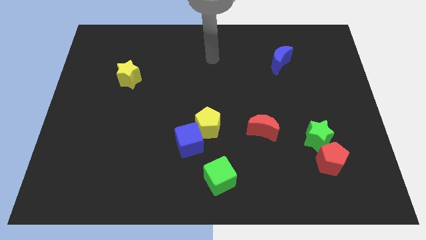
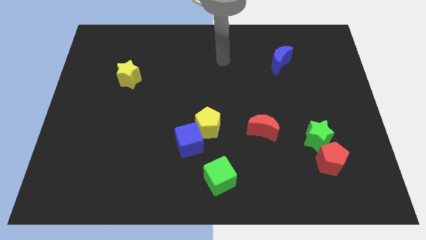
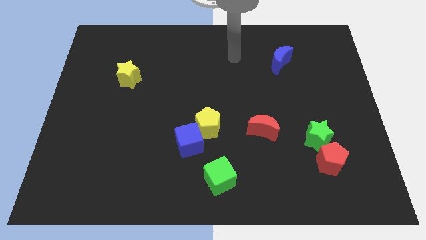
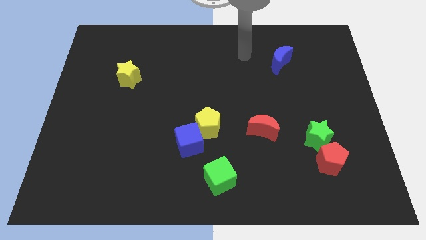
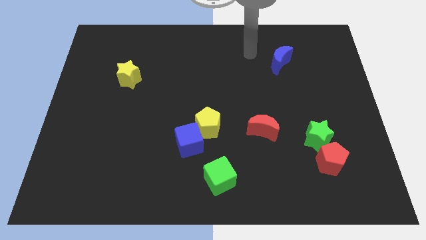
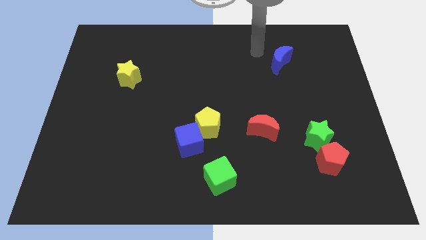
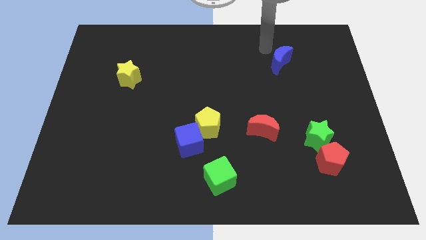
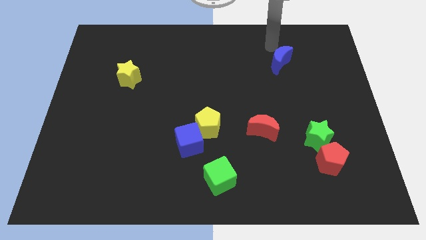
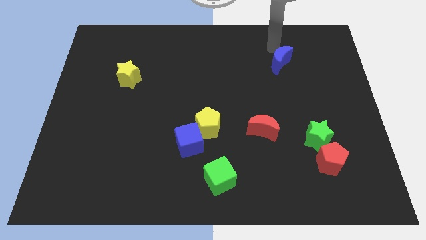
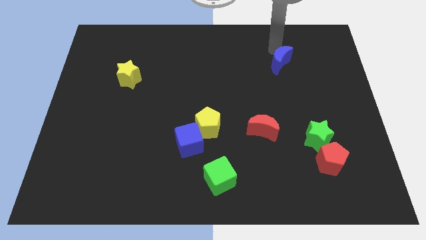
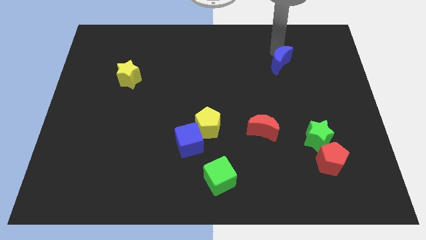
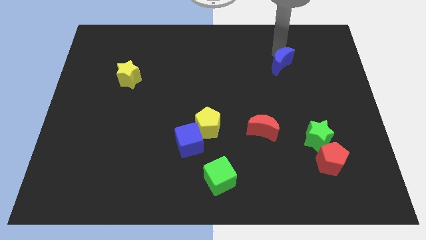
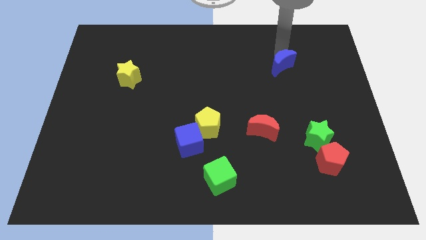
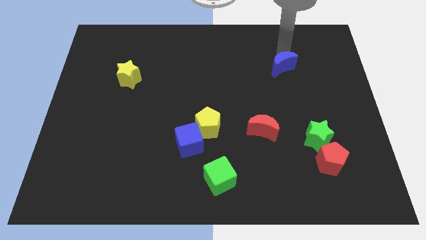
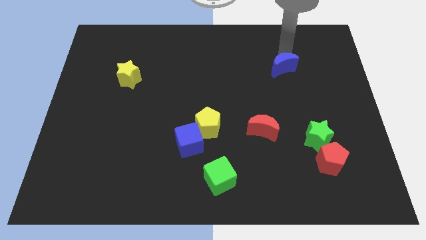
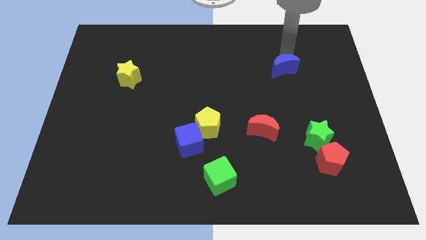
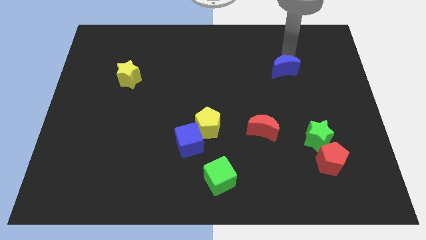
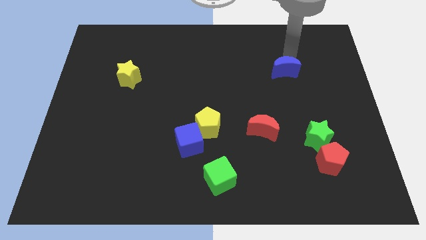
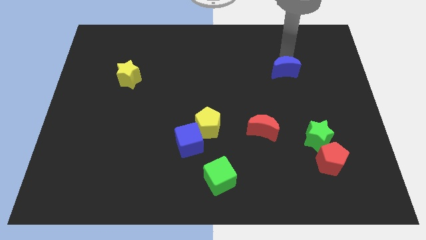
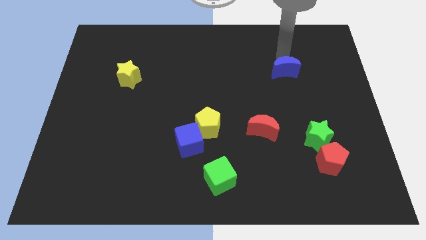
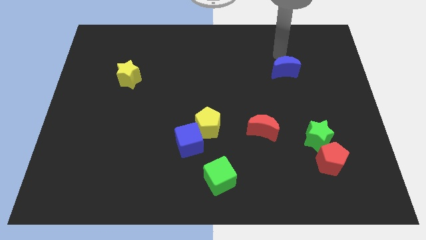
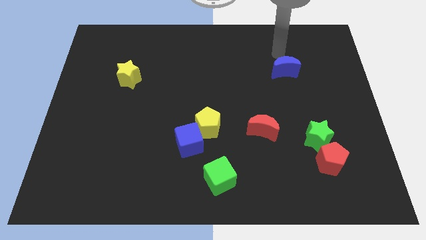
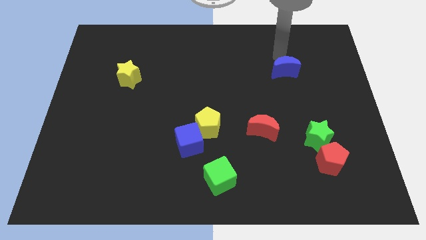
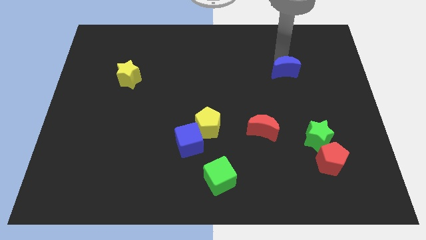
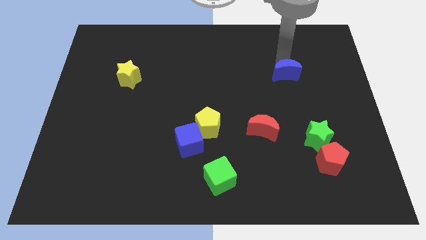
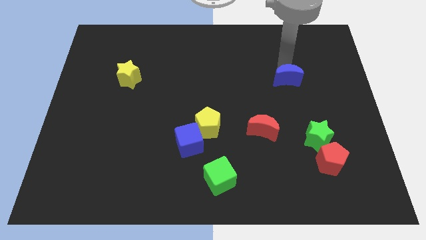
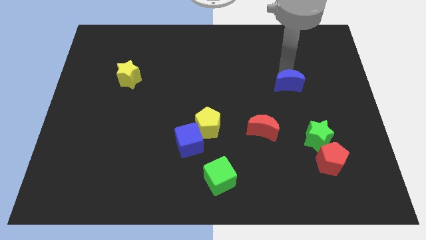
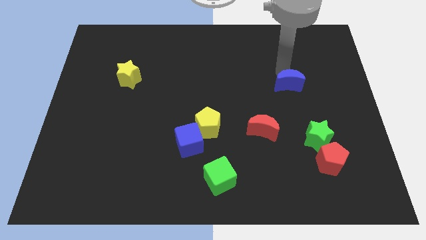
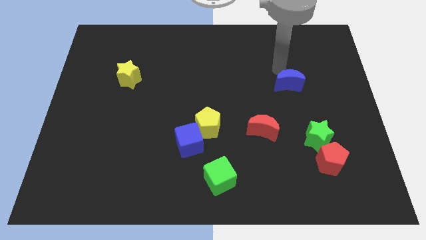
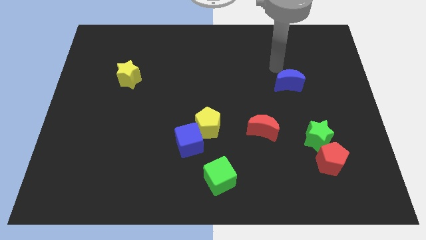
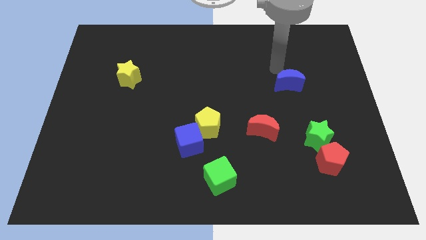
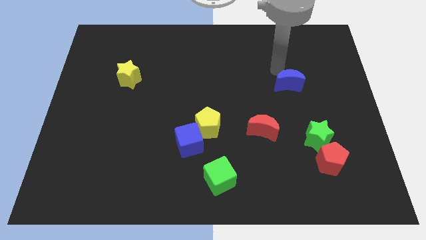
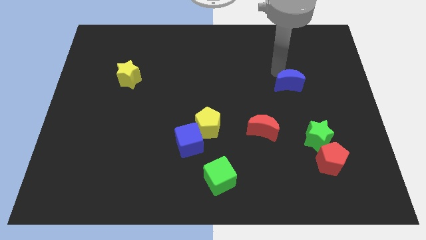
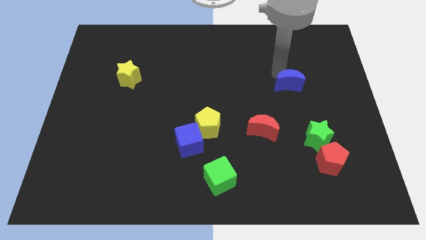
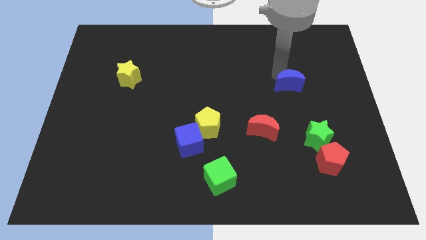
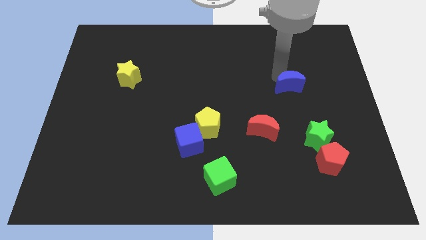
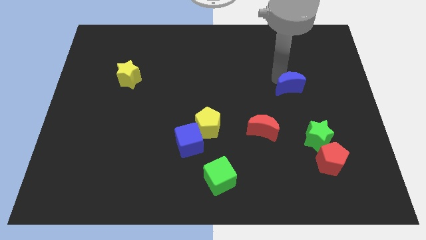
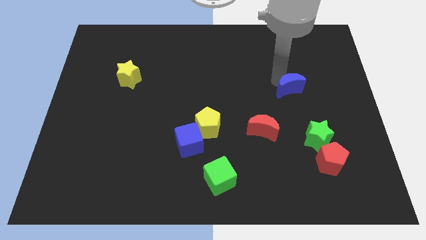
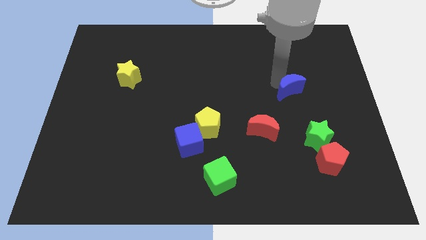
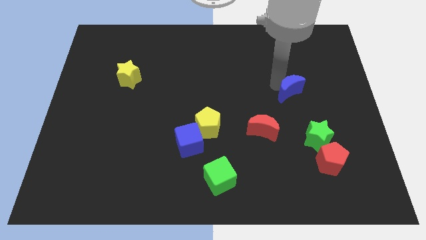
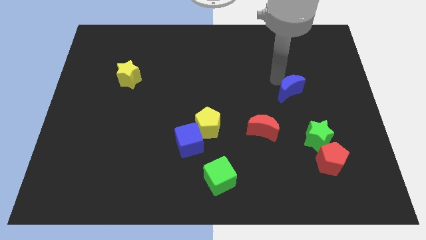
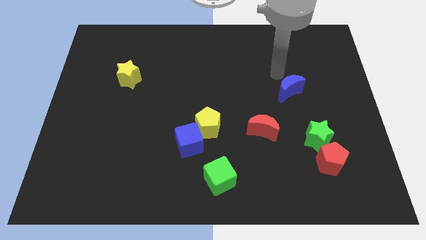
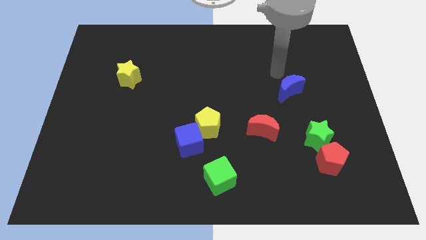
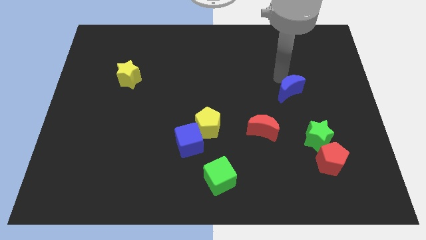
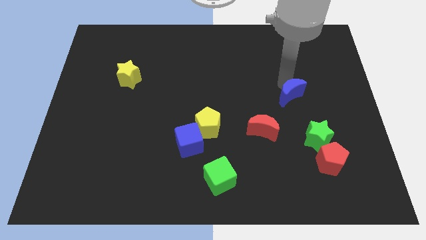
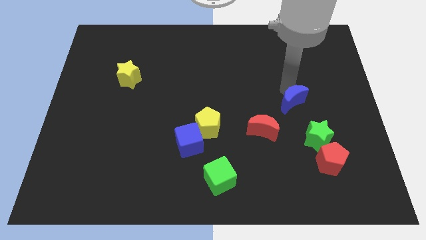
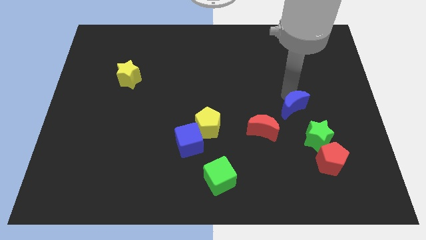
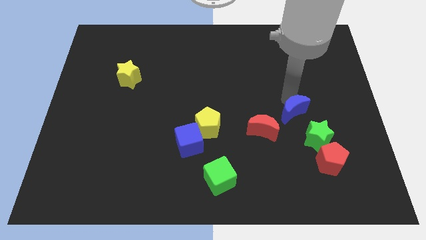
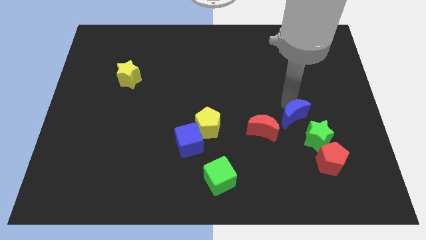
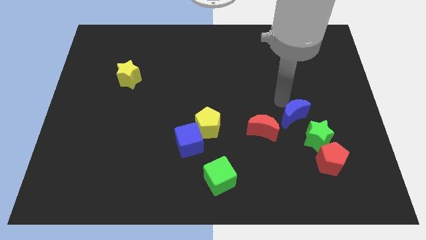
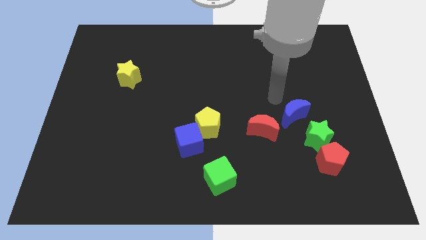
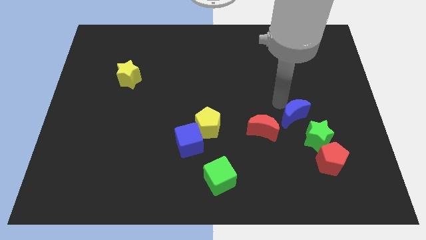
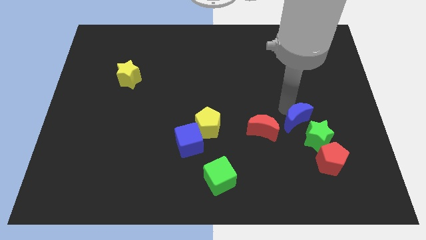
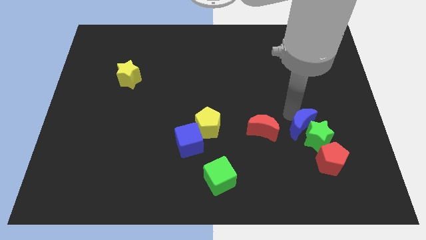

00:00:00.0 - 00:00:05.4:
slide the blue moon to the green star

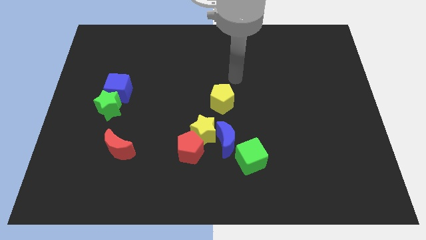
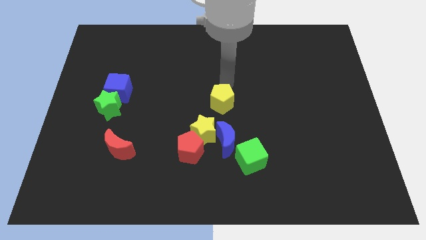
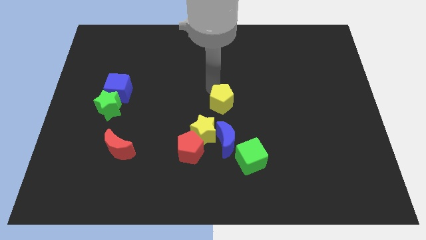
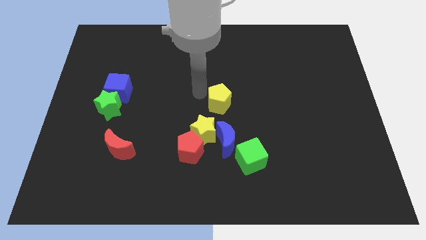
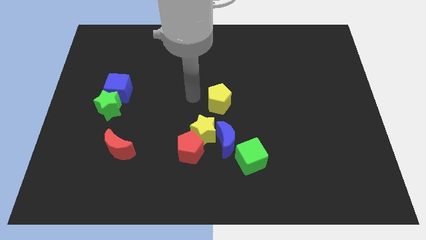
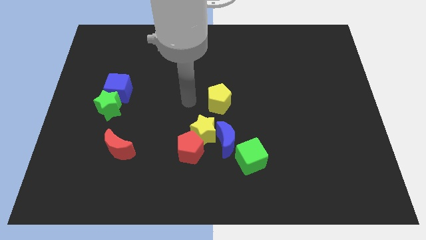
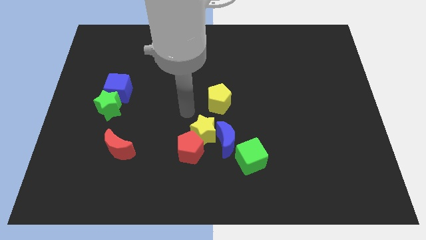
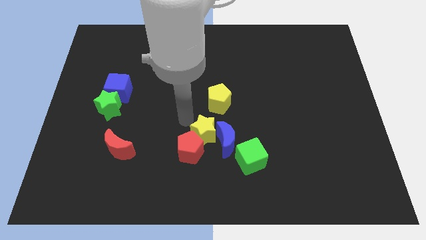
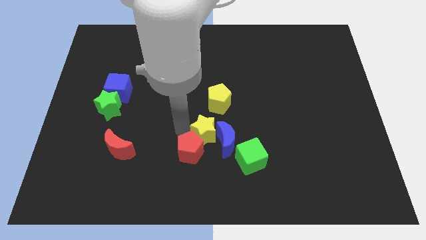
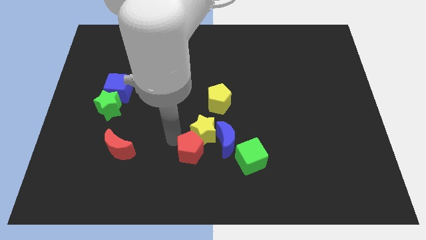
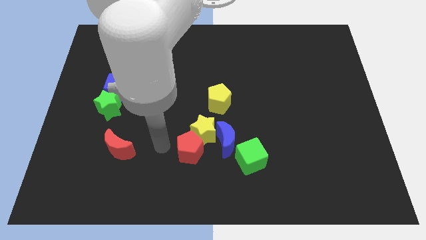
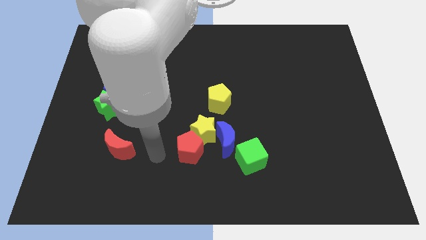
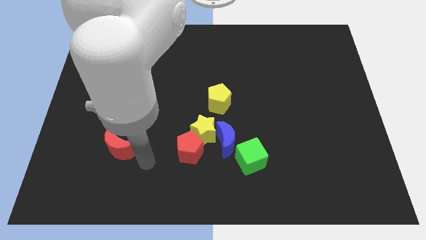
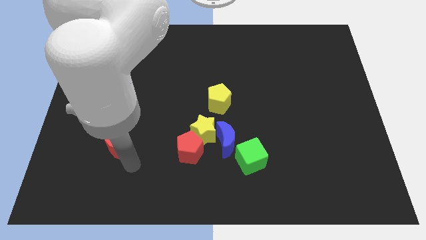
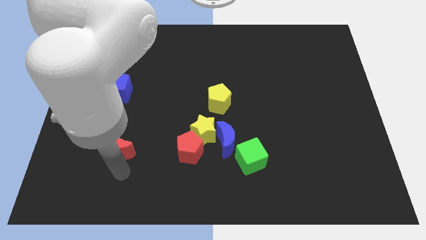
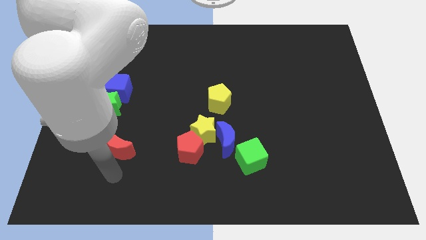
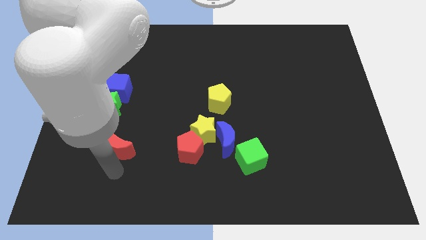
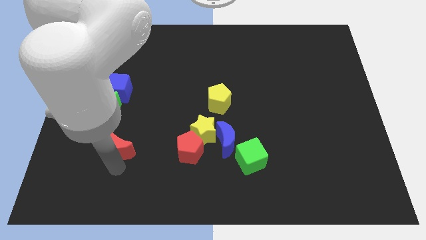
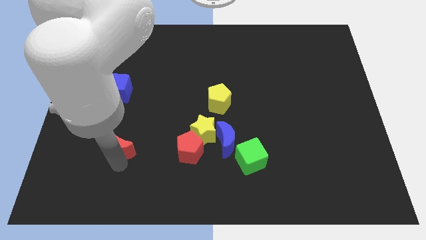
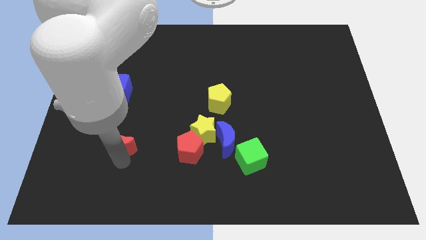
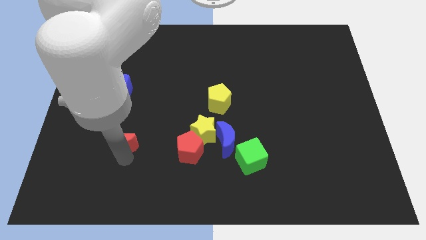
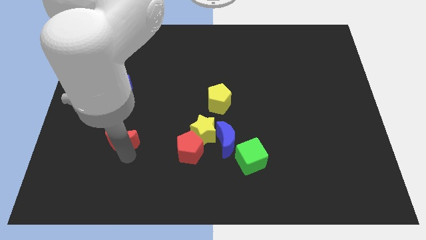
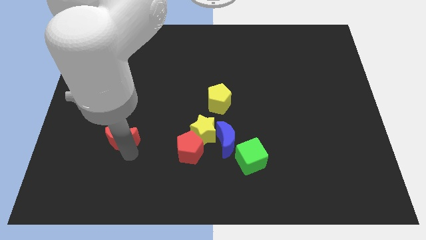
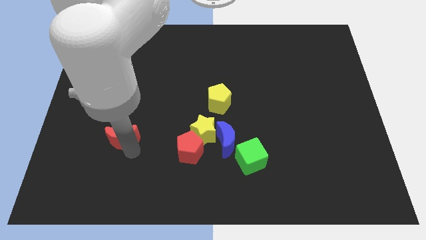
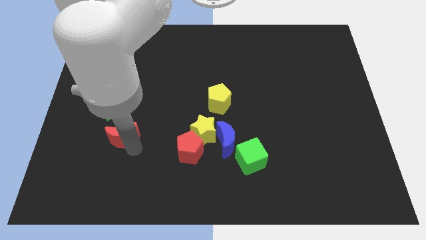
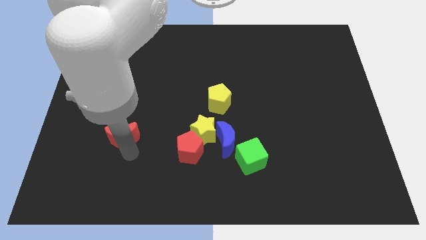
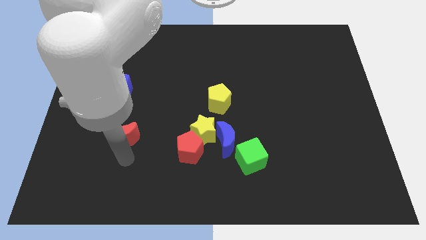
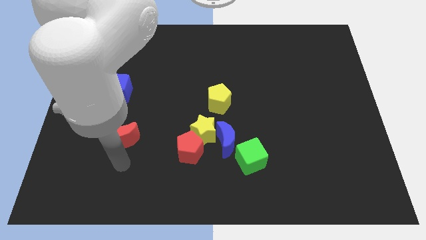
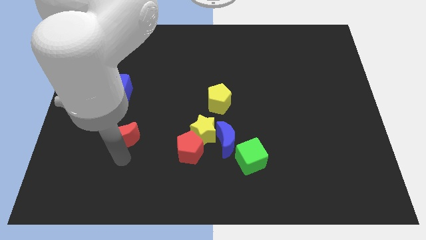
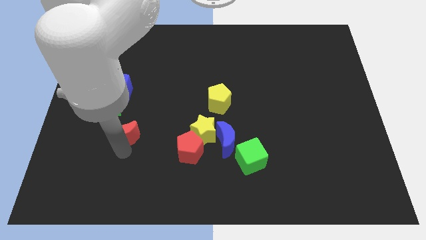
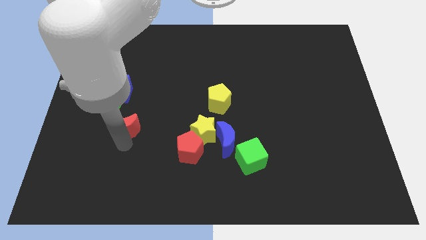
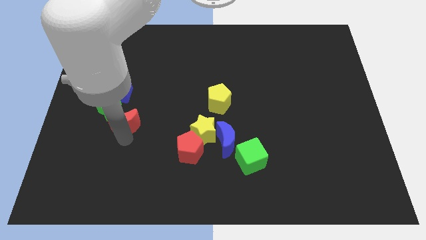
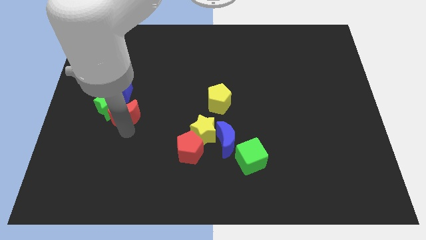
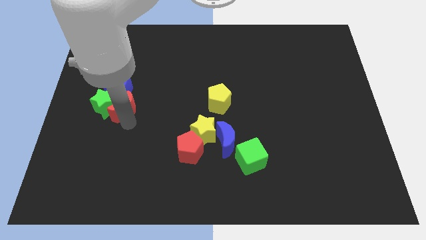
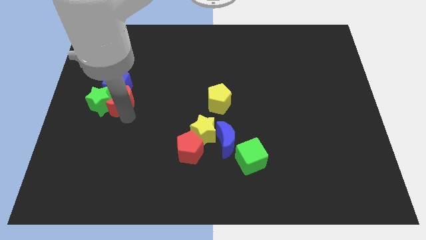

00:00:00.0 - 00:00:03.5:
slide the red moon to the blue cube
